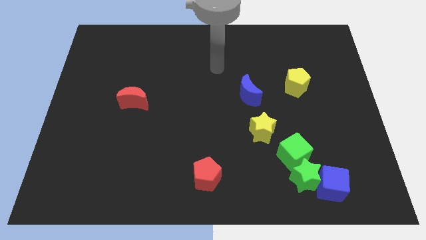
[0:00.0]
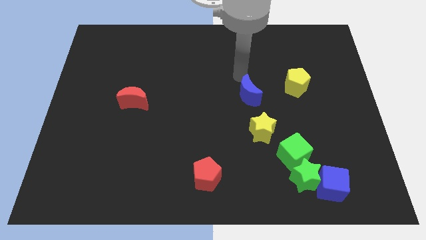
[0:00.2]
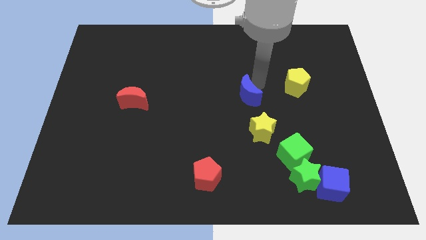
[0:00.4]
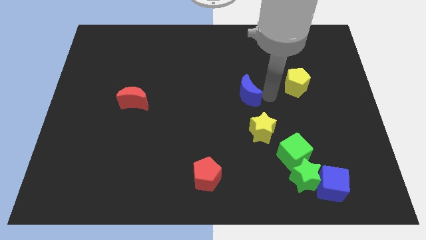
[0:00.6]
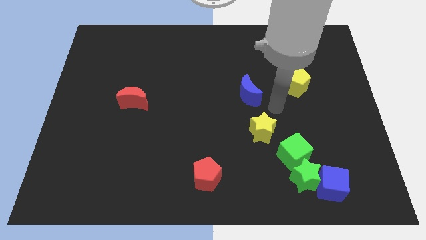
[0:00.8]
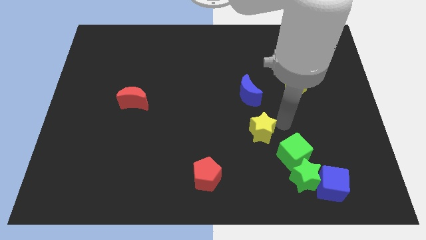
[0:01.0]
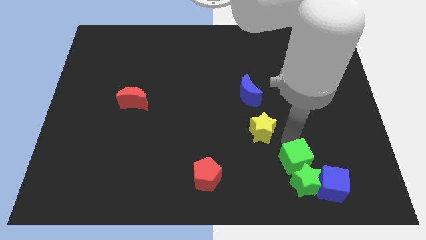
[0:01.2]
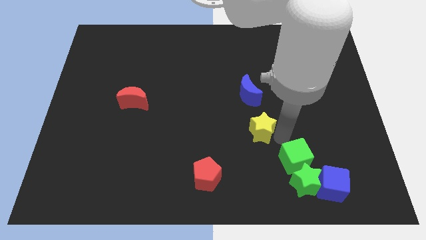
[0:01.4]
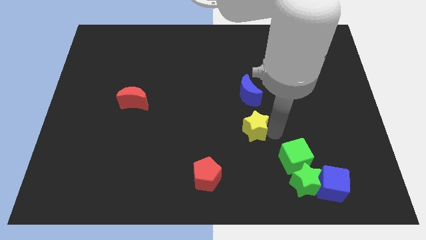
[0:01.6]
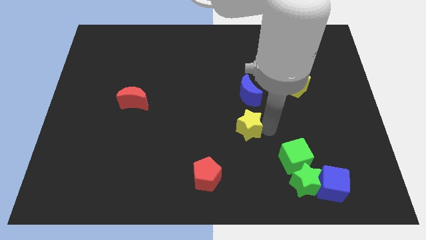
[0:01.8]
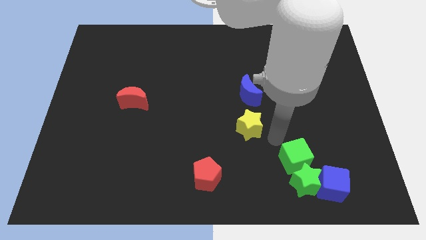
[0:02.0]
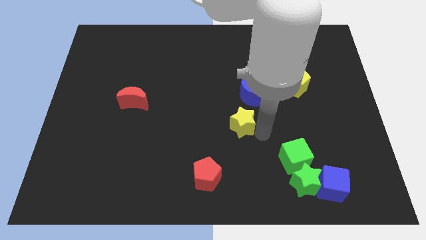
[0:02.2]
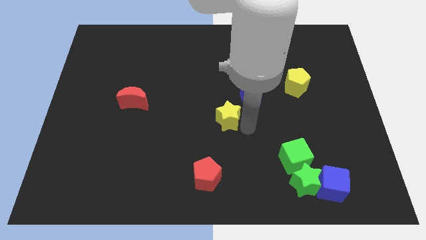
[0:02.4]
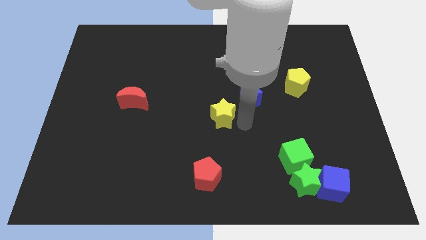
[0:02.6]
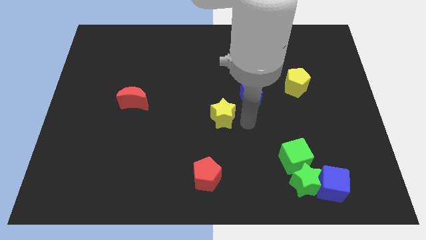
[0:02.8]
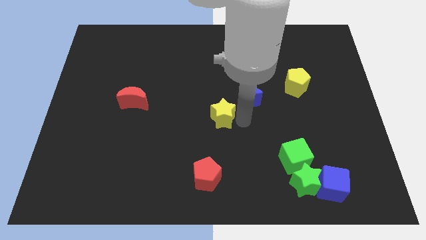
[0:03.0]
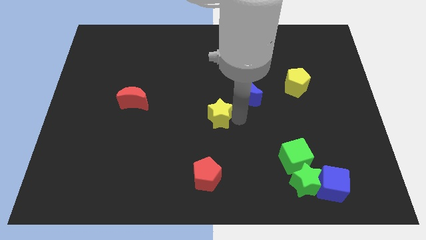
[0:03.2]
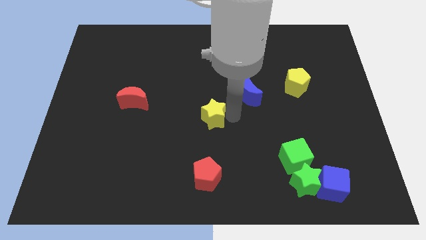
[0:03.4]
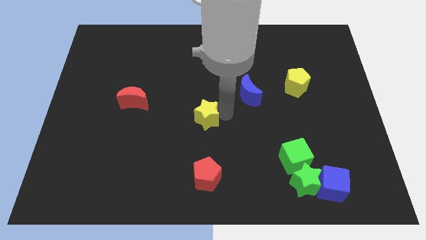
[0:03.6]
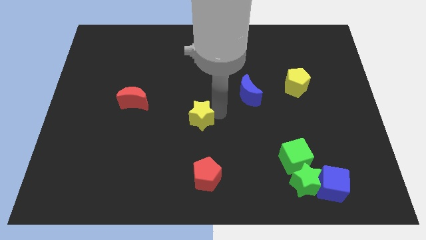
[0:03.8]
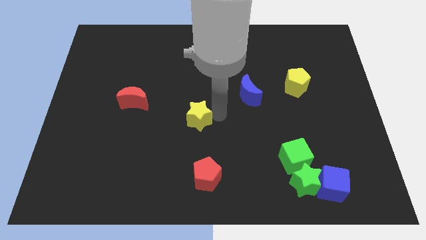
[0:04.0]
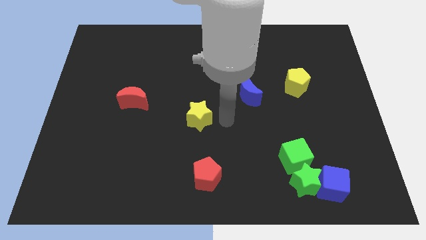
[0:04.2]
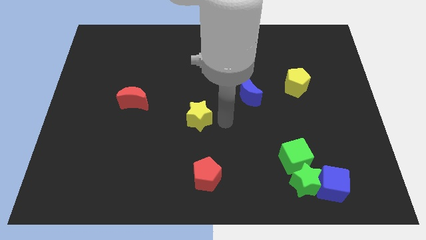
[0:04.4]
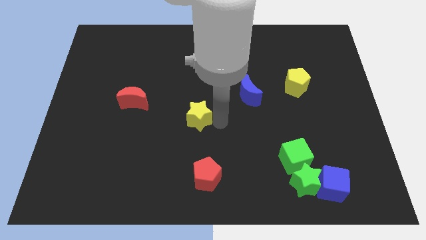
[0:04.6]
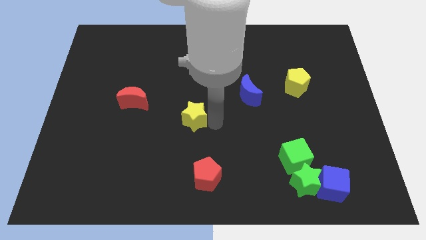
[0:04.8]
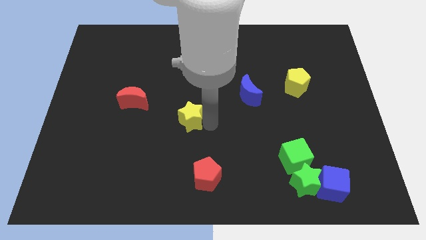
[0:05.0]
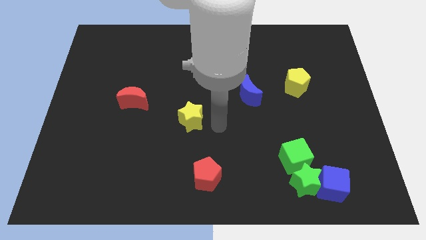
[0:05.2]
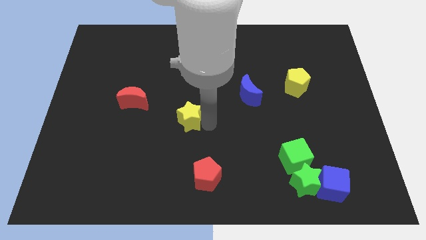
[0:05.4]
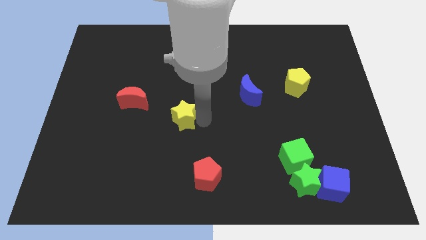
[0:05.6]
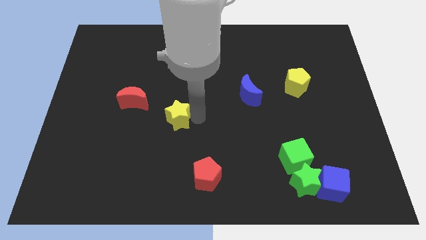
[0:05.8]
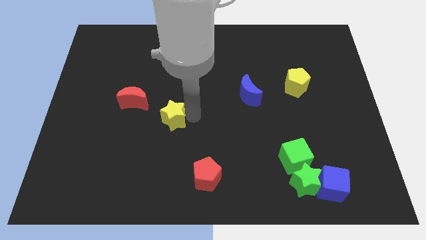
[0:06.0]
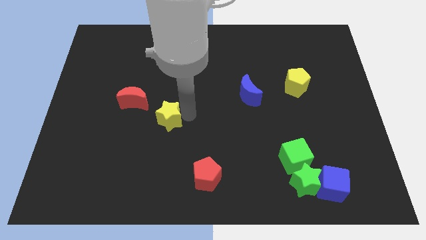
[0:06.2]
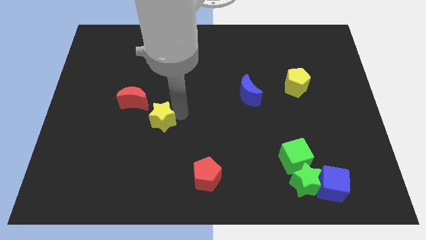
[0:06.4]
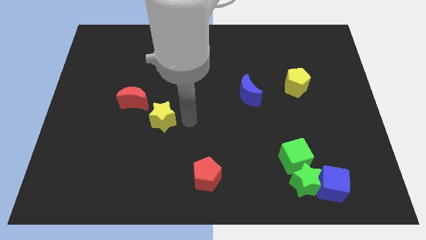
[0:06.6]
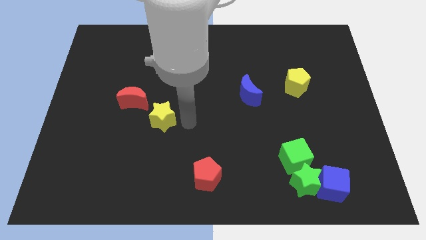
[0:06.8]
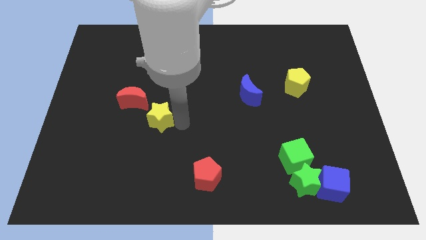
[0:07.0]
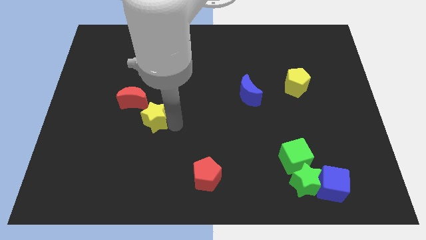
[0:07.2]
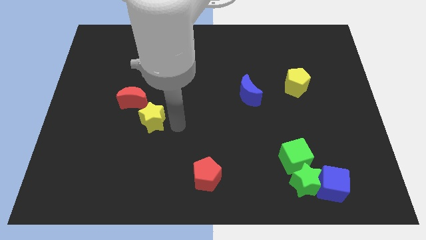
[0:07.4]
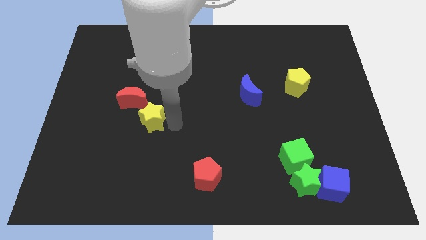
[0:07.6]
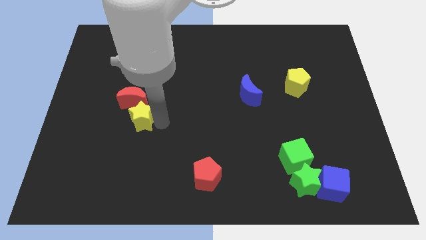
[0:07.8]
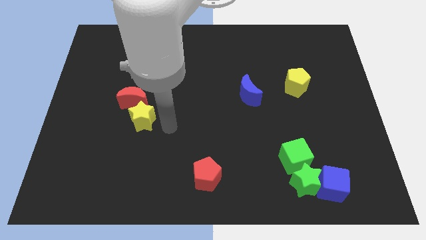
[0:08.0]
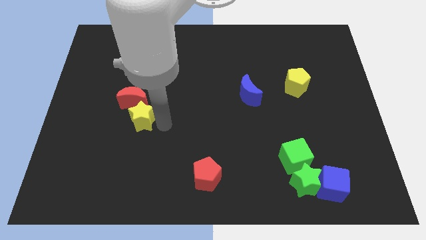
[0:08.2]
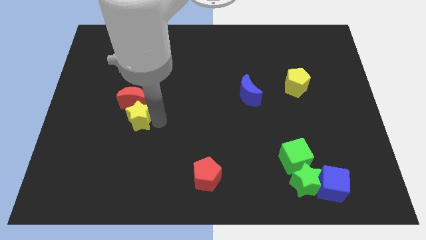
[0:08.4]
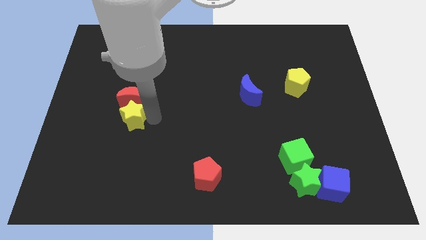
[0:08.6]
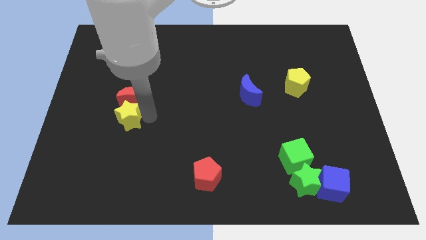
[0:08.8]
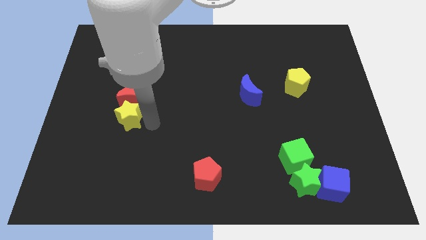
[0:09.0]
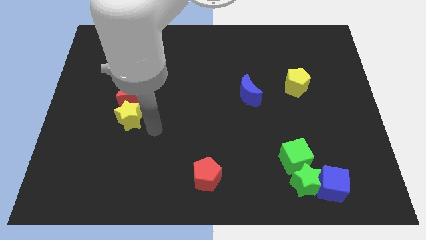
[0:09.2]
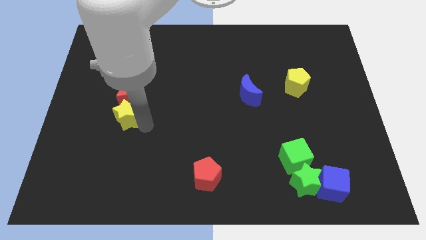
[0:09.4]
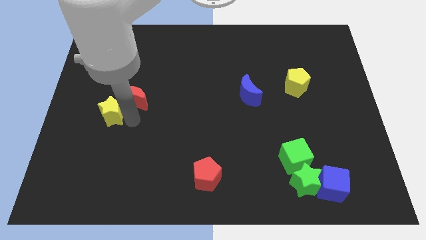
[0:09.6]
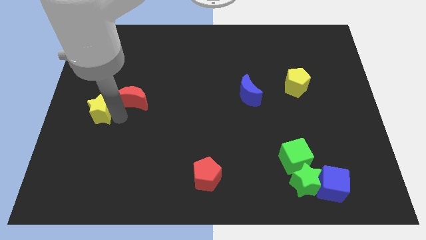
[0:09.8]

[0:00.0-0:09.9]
push the yellow star to the left side of the board

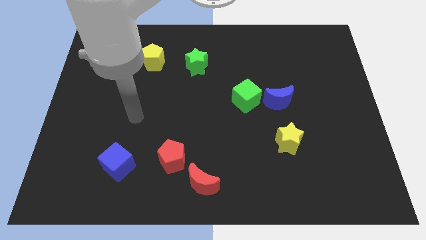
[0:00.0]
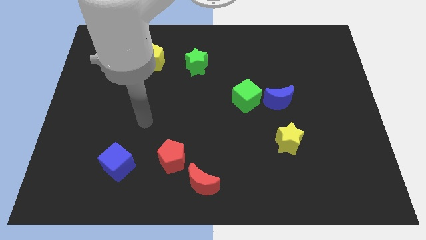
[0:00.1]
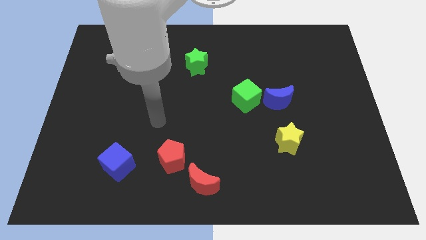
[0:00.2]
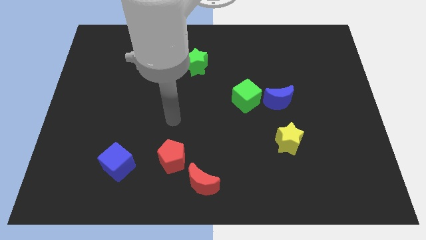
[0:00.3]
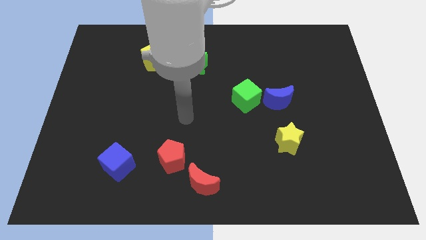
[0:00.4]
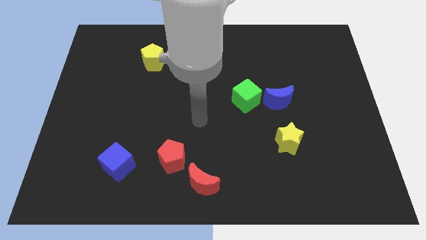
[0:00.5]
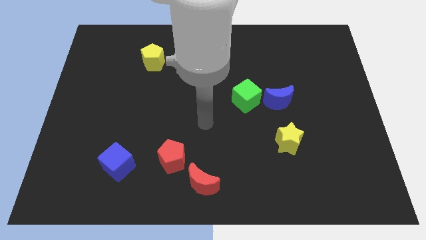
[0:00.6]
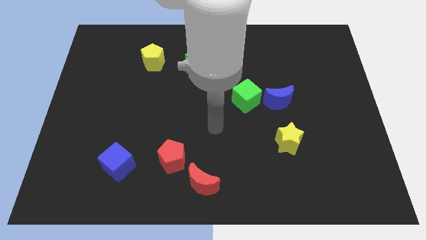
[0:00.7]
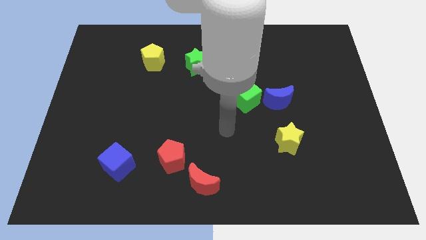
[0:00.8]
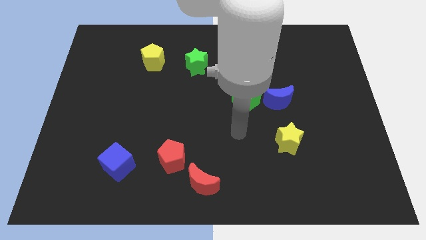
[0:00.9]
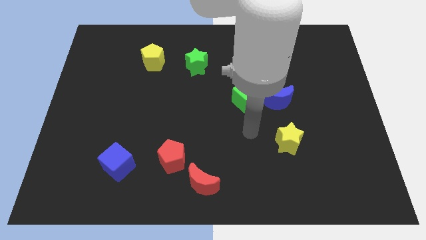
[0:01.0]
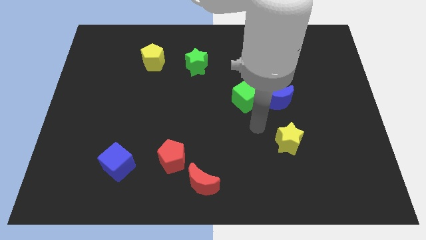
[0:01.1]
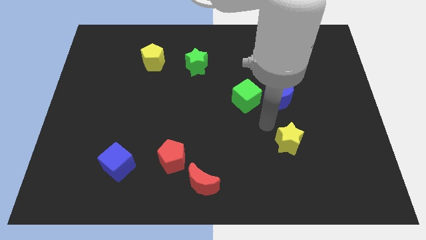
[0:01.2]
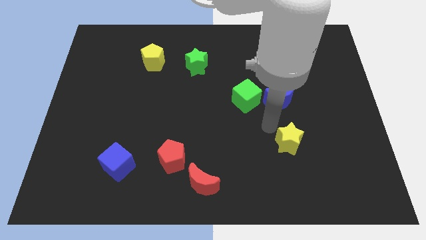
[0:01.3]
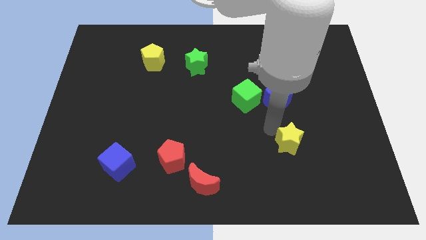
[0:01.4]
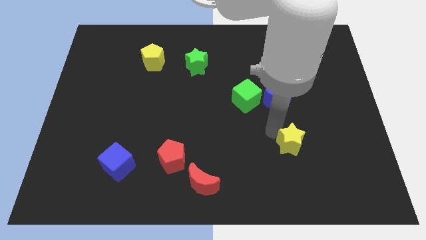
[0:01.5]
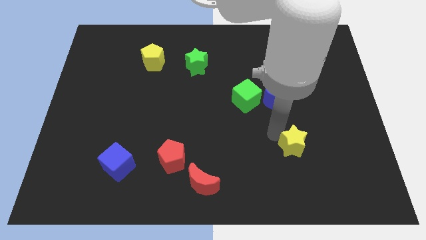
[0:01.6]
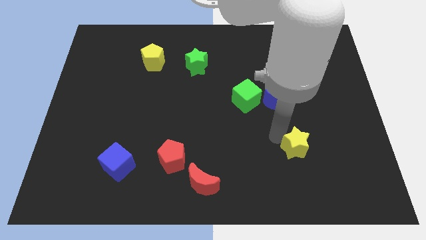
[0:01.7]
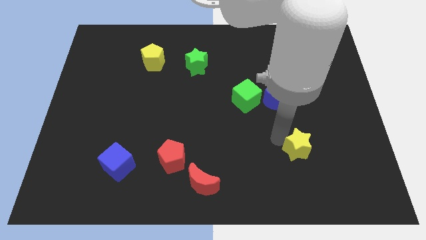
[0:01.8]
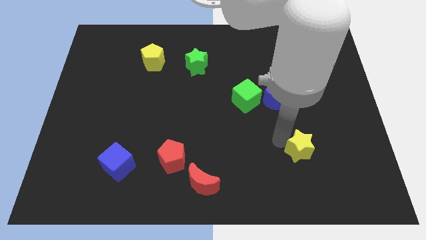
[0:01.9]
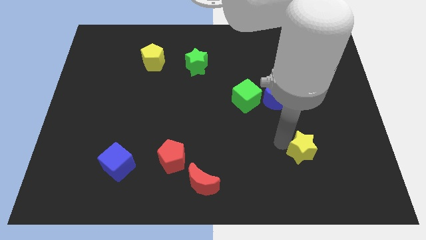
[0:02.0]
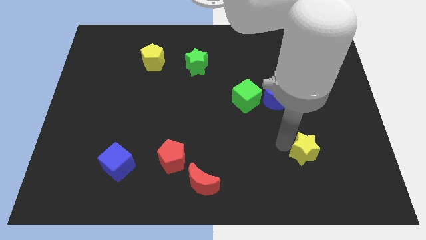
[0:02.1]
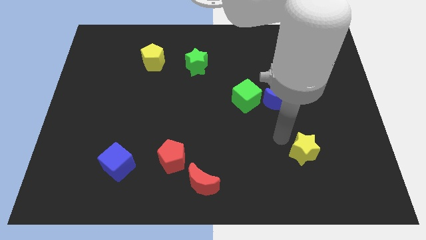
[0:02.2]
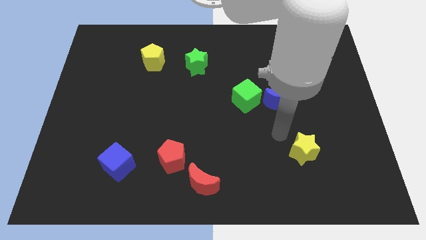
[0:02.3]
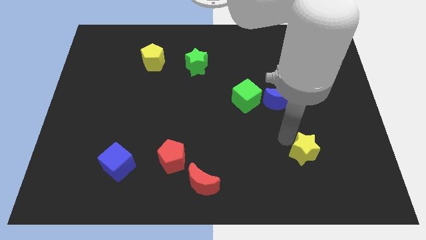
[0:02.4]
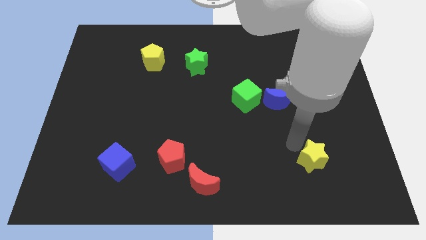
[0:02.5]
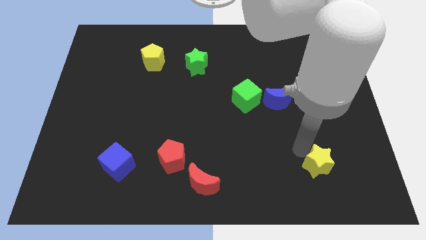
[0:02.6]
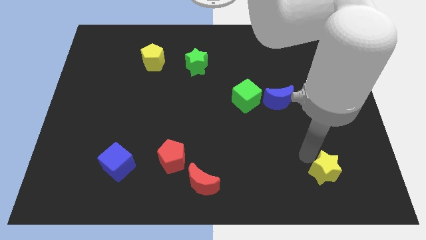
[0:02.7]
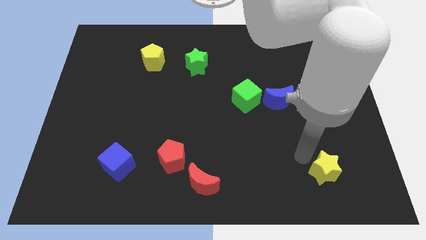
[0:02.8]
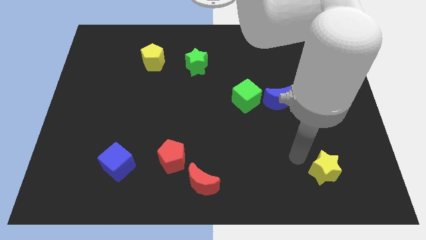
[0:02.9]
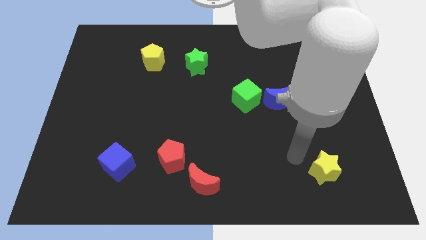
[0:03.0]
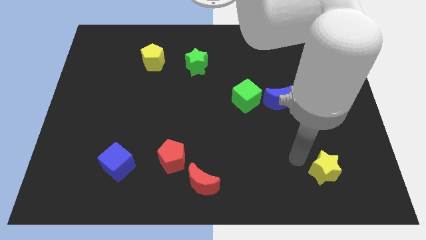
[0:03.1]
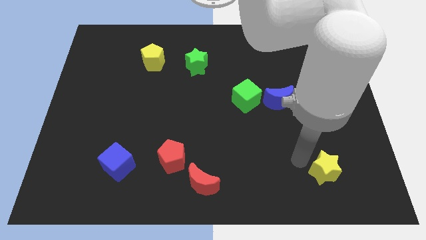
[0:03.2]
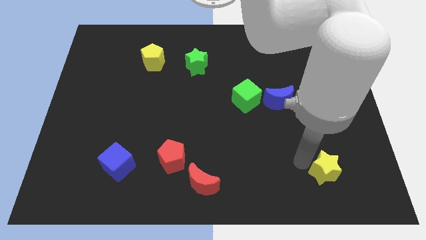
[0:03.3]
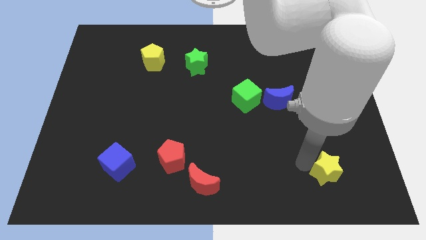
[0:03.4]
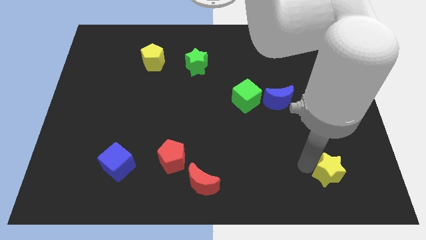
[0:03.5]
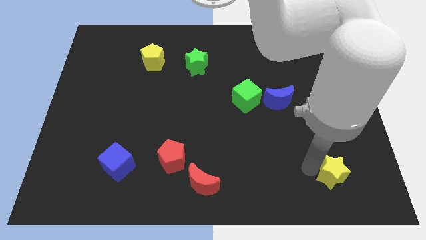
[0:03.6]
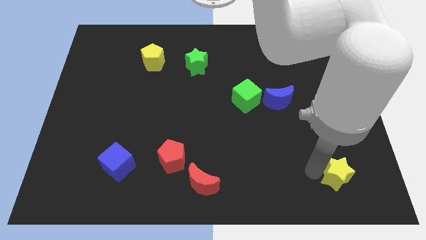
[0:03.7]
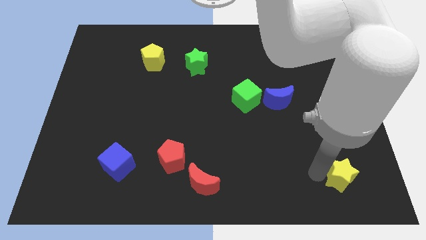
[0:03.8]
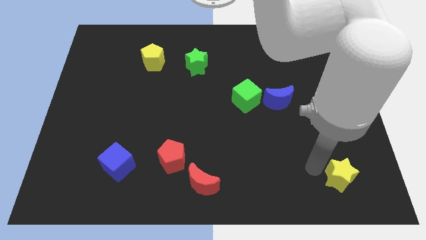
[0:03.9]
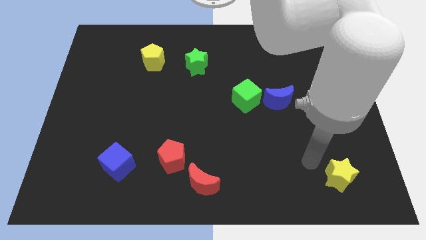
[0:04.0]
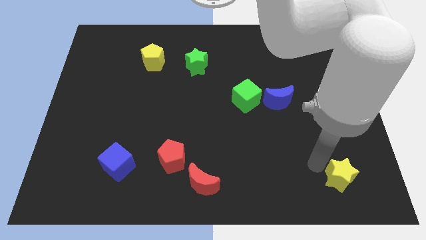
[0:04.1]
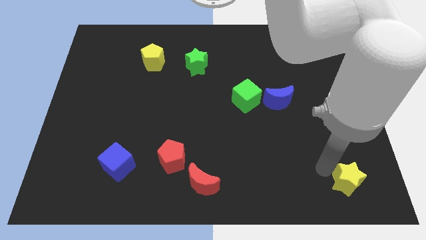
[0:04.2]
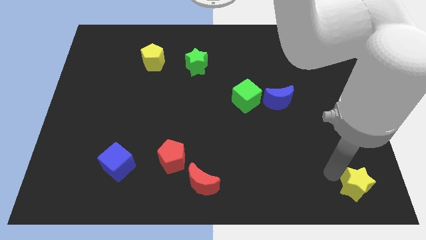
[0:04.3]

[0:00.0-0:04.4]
move the yellow star to the bottom right of the board
